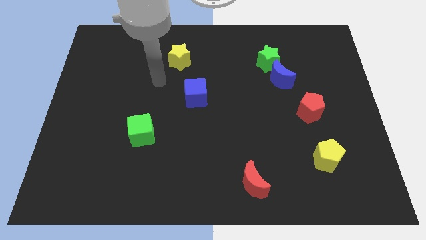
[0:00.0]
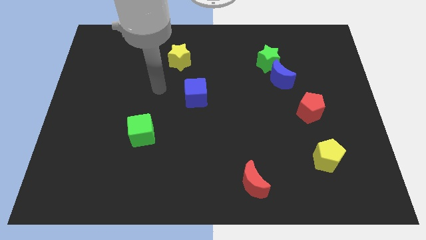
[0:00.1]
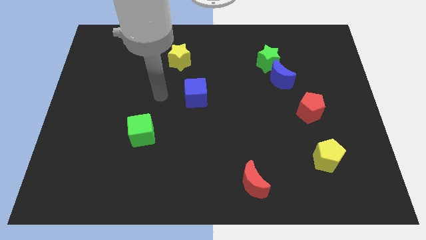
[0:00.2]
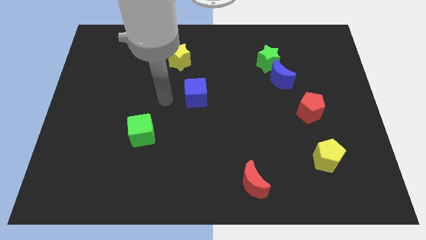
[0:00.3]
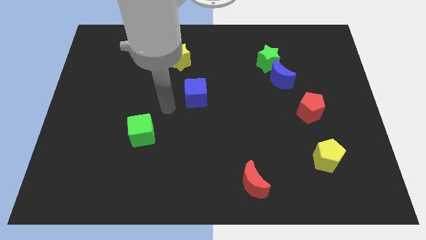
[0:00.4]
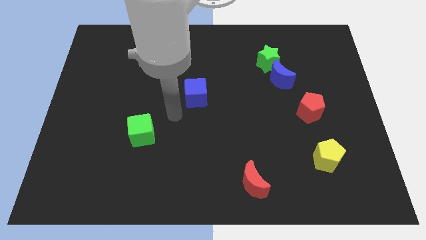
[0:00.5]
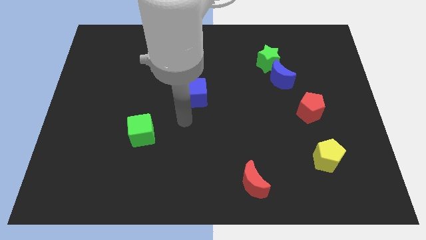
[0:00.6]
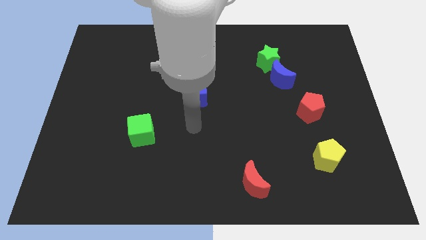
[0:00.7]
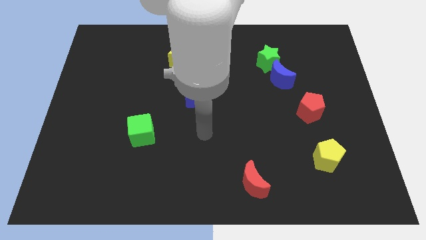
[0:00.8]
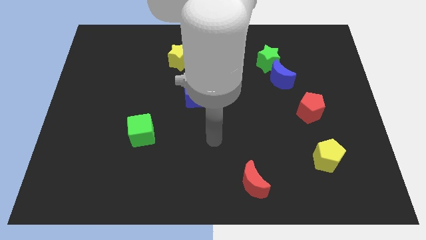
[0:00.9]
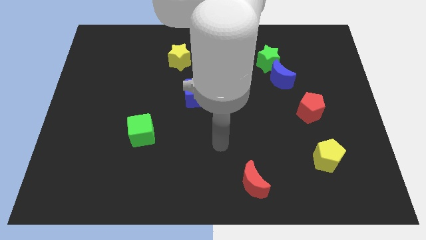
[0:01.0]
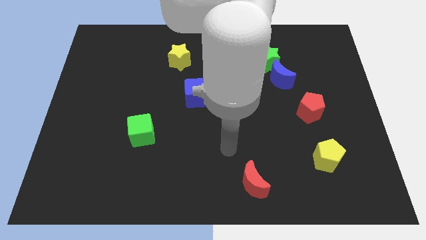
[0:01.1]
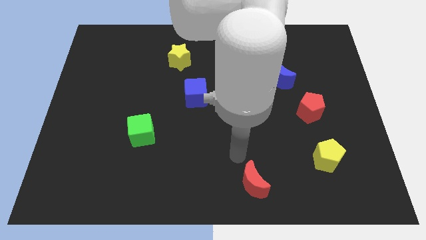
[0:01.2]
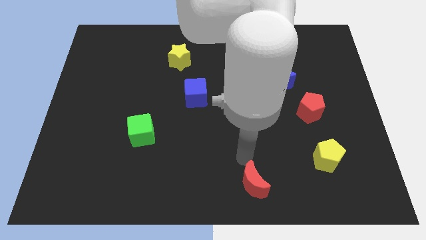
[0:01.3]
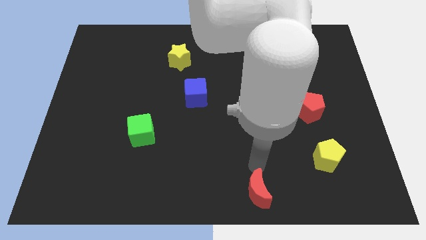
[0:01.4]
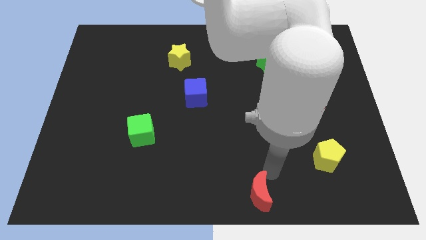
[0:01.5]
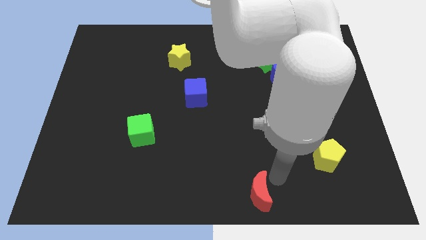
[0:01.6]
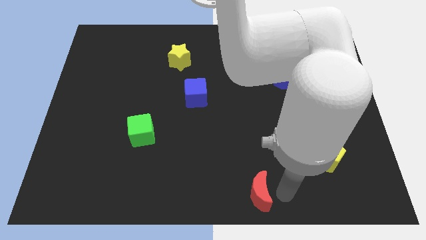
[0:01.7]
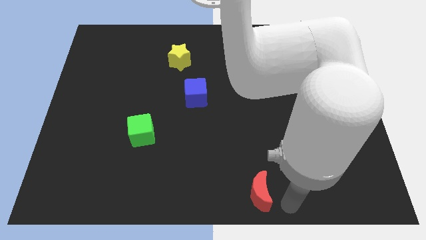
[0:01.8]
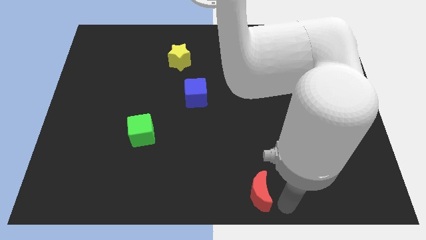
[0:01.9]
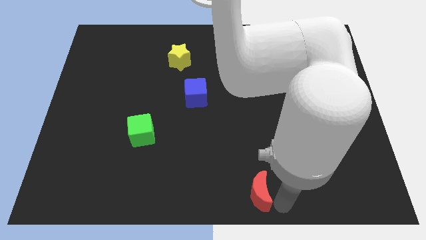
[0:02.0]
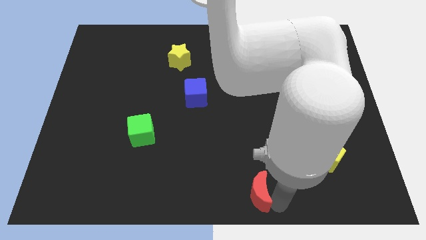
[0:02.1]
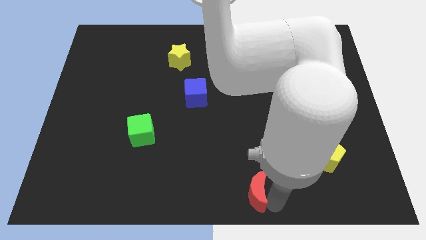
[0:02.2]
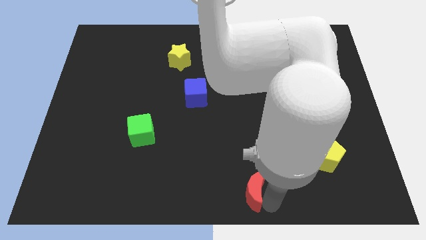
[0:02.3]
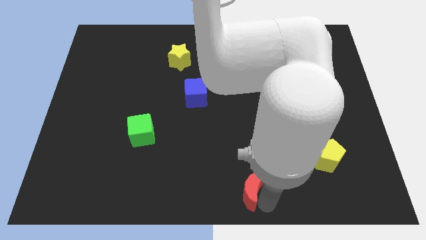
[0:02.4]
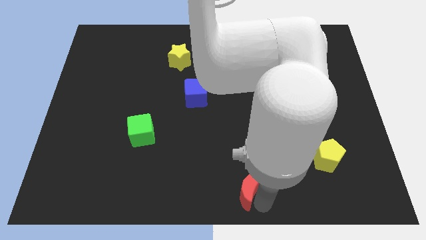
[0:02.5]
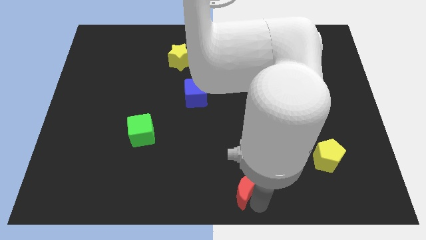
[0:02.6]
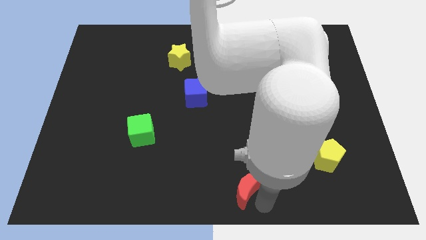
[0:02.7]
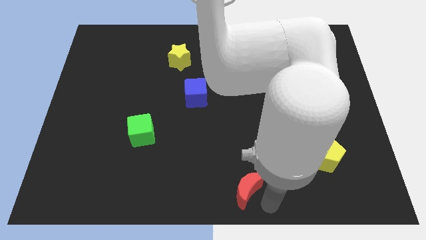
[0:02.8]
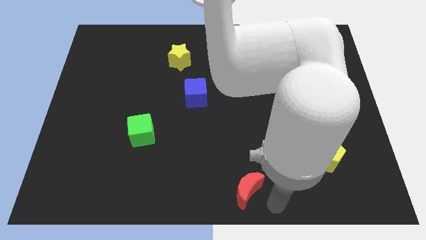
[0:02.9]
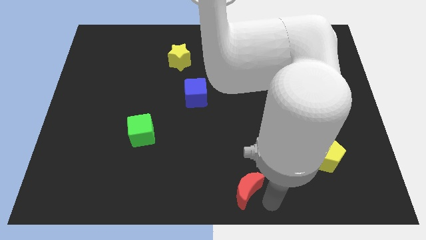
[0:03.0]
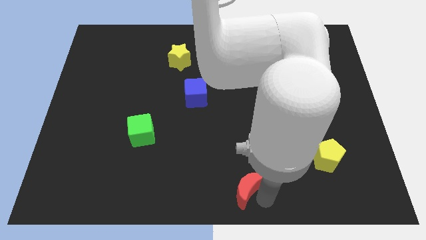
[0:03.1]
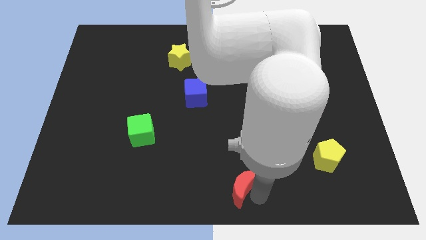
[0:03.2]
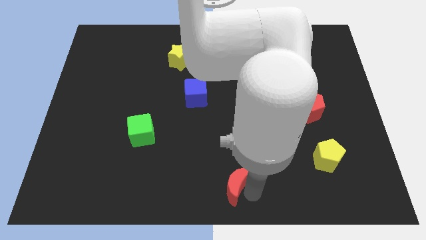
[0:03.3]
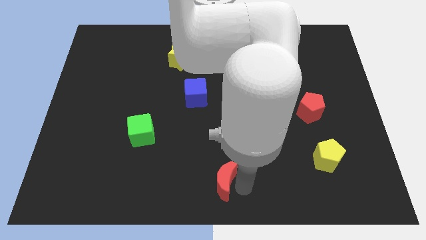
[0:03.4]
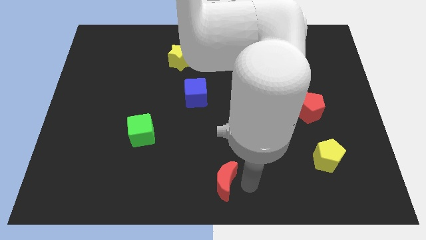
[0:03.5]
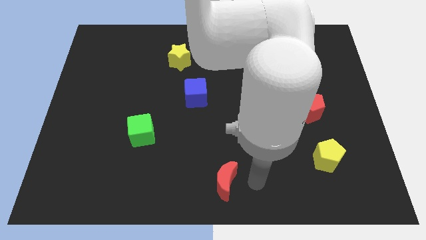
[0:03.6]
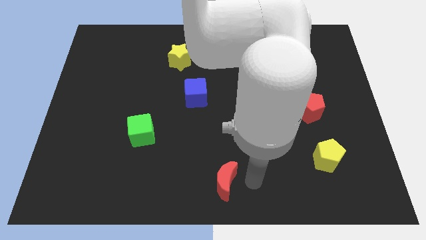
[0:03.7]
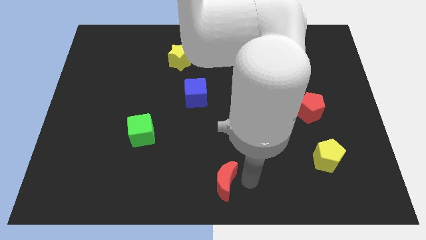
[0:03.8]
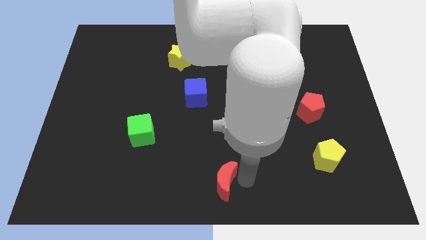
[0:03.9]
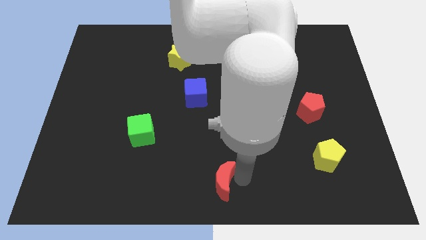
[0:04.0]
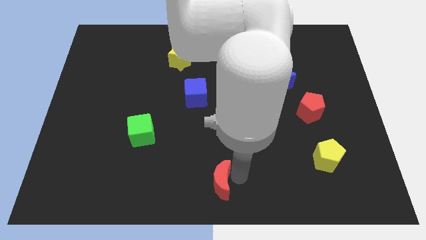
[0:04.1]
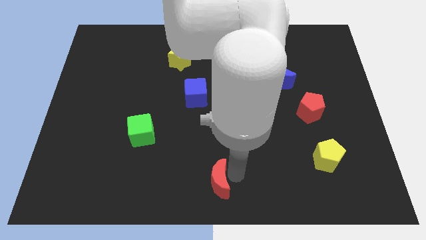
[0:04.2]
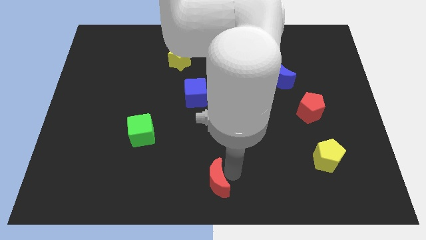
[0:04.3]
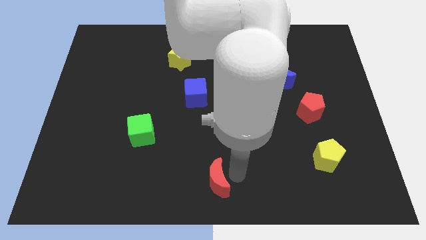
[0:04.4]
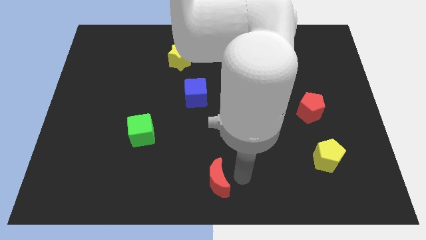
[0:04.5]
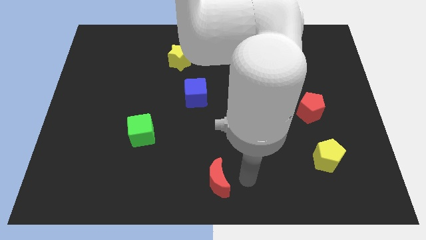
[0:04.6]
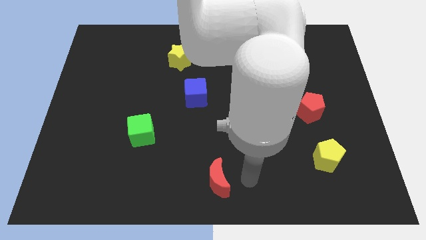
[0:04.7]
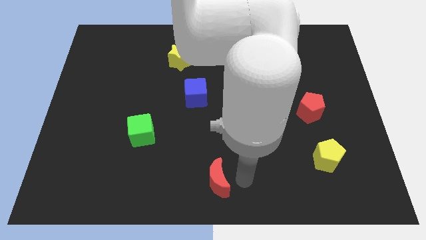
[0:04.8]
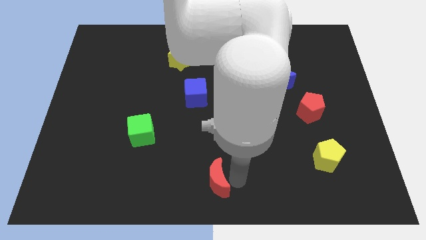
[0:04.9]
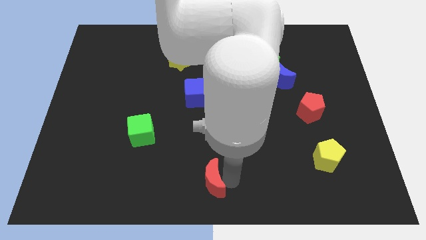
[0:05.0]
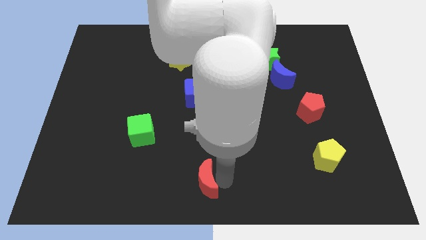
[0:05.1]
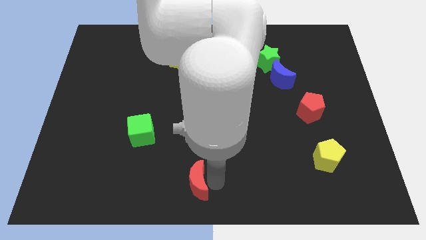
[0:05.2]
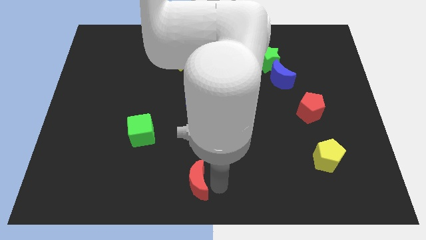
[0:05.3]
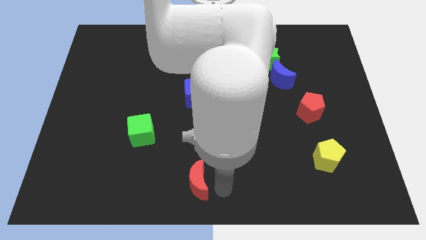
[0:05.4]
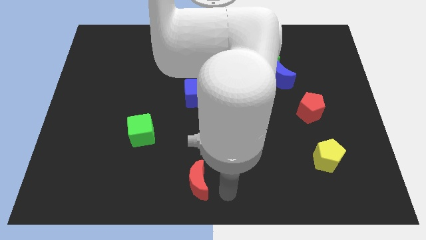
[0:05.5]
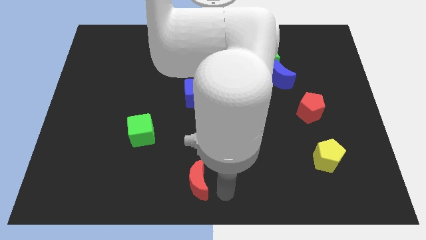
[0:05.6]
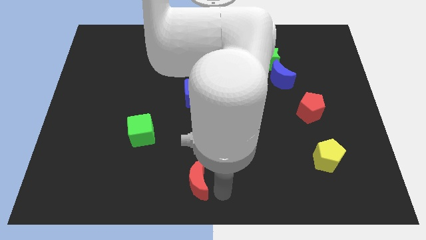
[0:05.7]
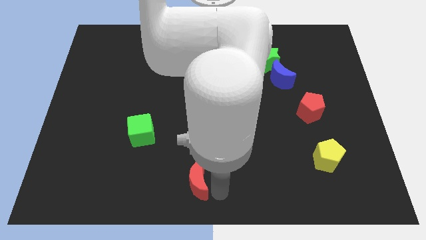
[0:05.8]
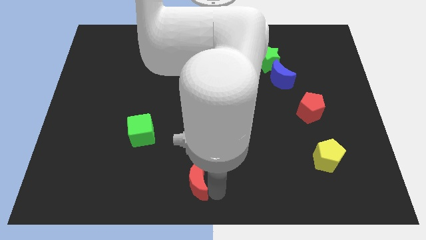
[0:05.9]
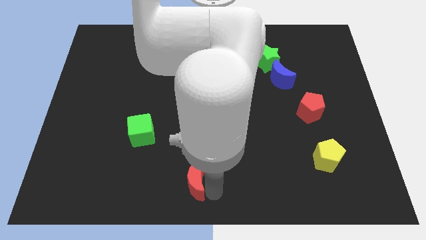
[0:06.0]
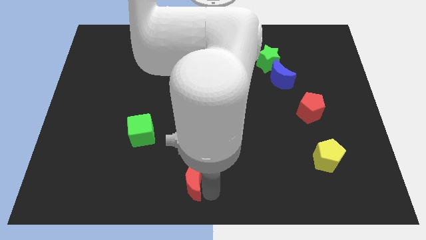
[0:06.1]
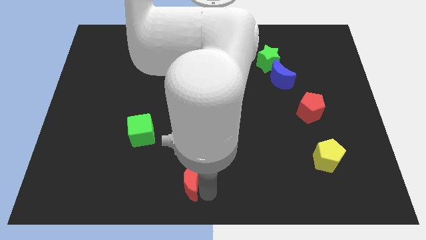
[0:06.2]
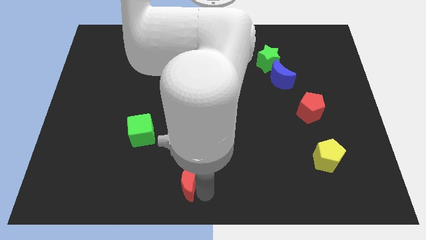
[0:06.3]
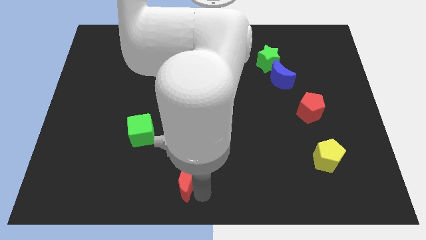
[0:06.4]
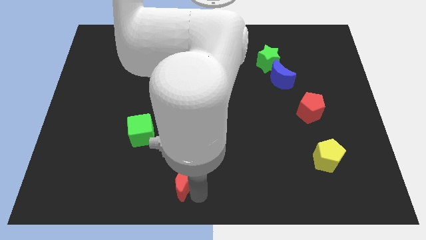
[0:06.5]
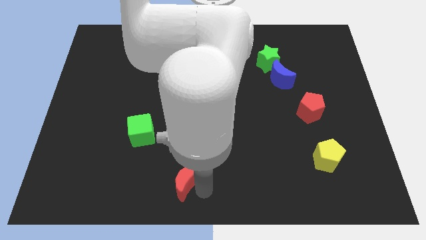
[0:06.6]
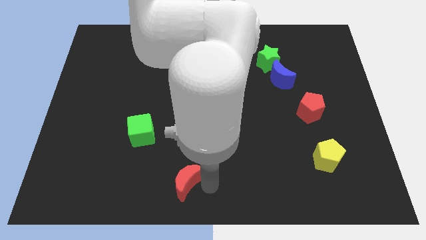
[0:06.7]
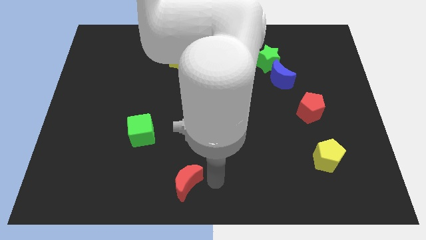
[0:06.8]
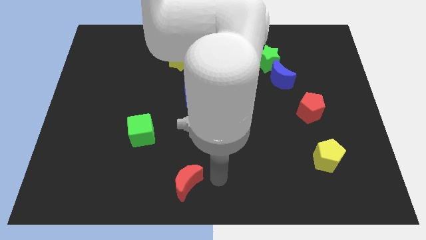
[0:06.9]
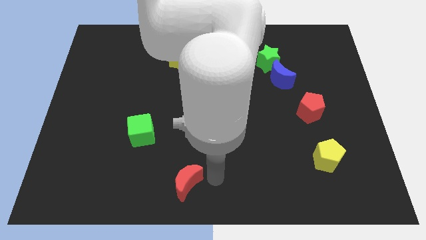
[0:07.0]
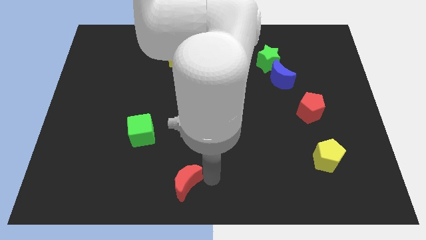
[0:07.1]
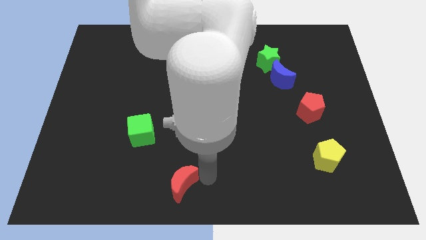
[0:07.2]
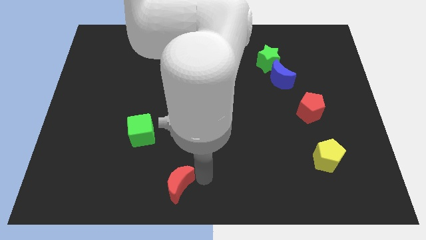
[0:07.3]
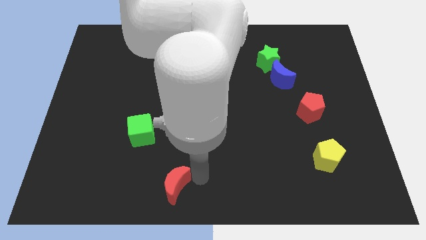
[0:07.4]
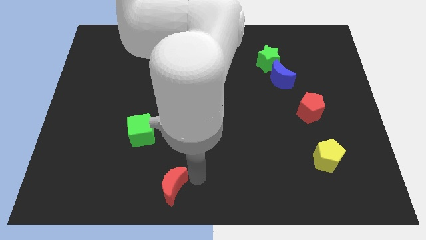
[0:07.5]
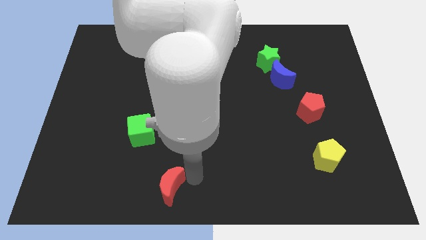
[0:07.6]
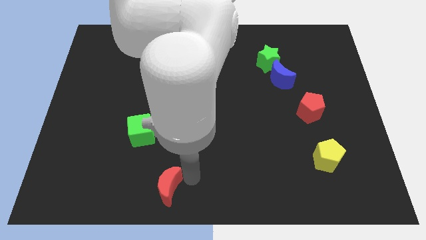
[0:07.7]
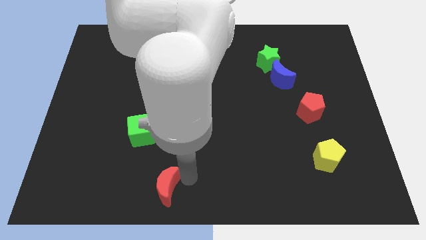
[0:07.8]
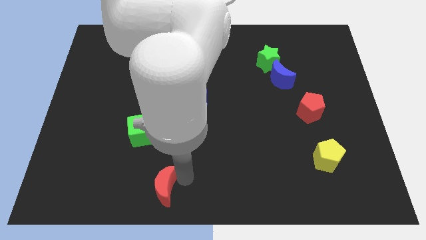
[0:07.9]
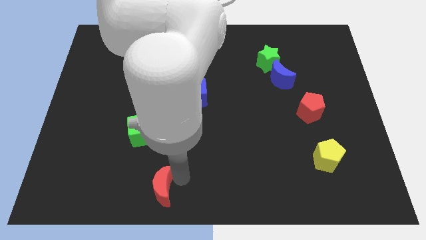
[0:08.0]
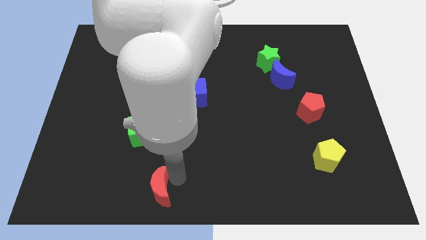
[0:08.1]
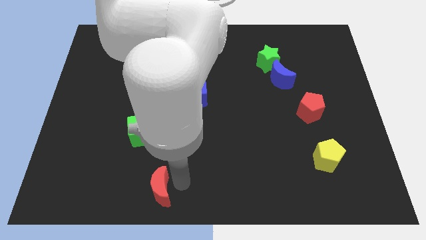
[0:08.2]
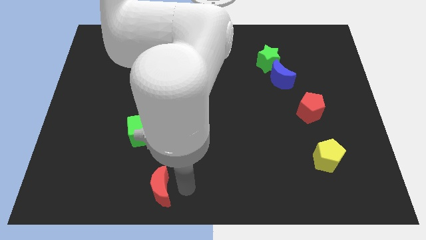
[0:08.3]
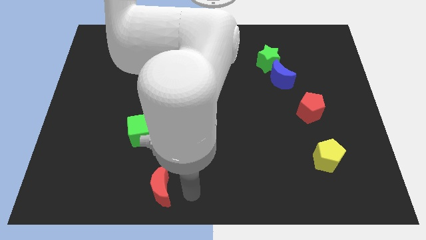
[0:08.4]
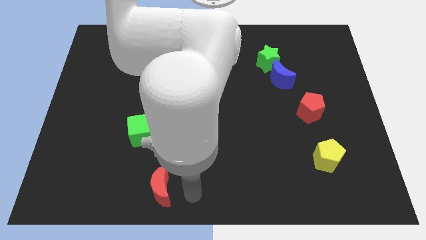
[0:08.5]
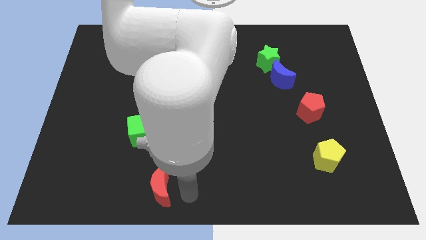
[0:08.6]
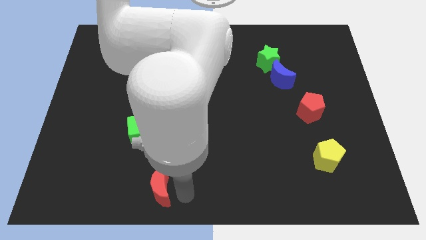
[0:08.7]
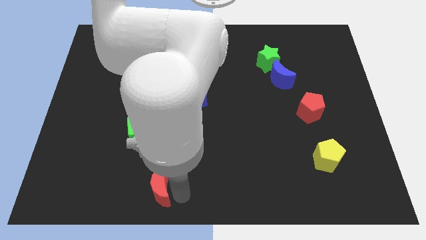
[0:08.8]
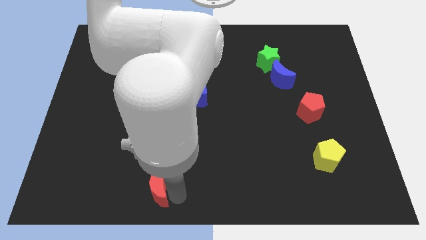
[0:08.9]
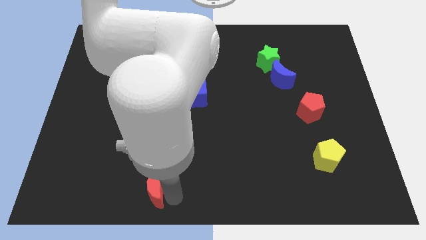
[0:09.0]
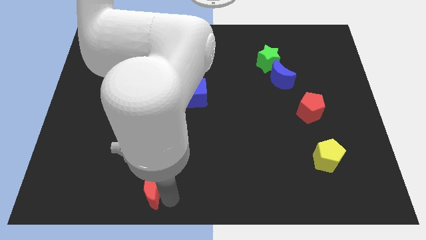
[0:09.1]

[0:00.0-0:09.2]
push the red moon left
